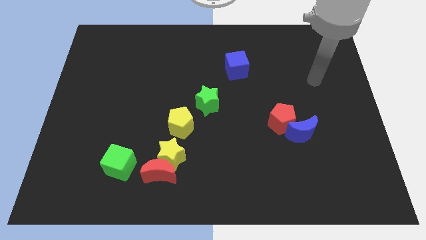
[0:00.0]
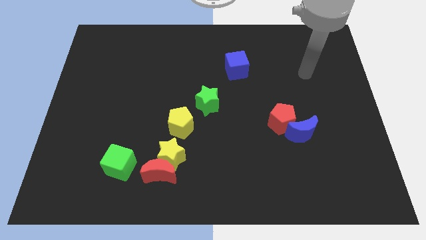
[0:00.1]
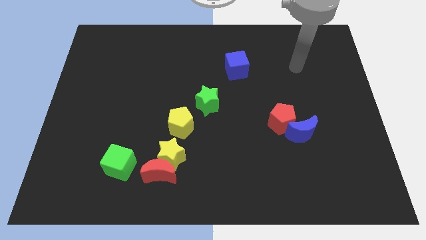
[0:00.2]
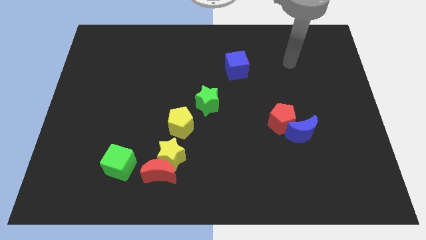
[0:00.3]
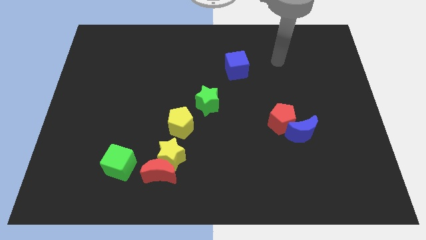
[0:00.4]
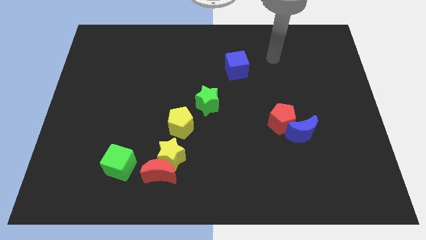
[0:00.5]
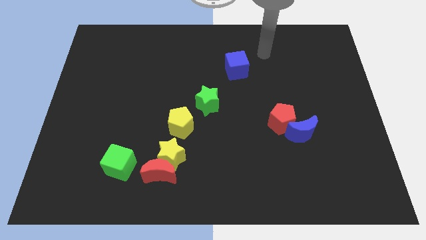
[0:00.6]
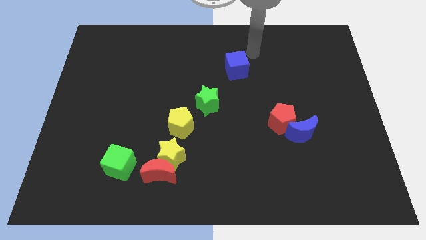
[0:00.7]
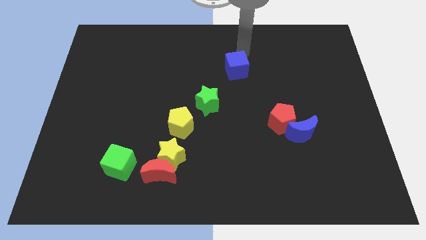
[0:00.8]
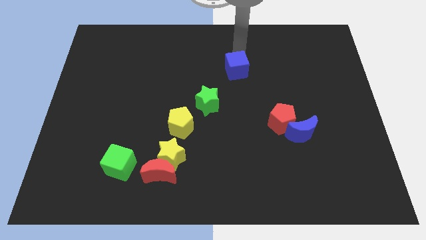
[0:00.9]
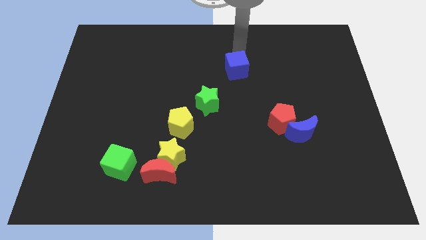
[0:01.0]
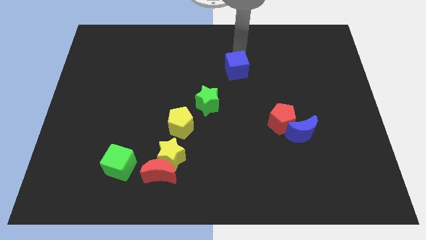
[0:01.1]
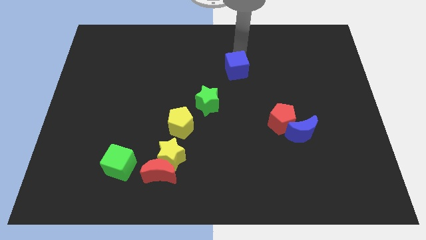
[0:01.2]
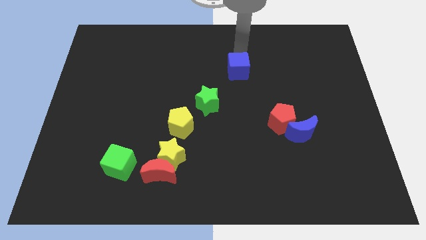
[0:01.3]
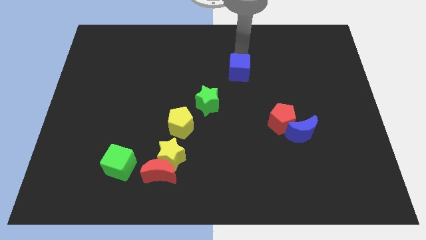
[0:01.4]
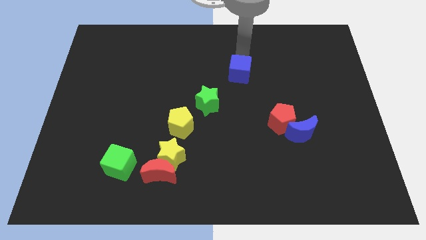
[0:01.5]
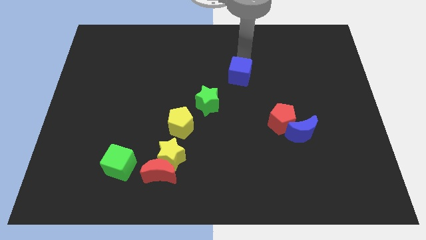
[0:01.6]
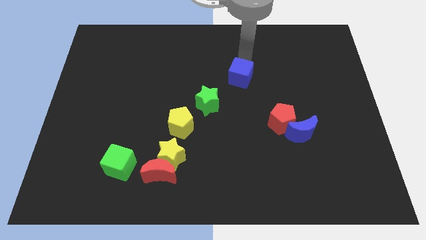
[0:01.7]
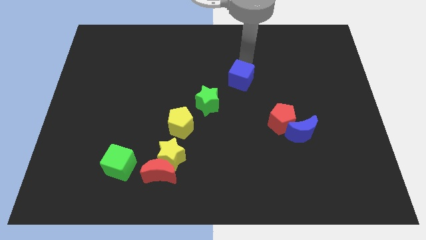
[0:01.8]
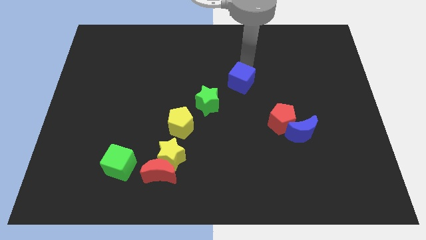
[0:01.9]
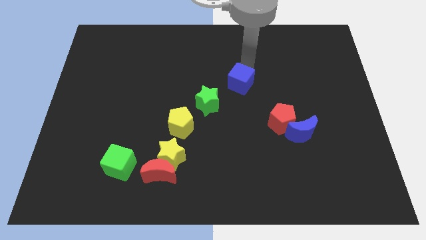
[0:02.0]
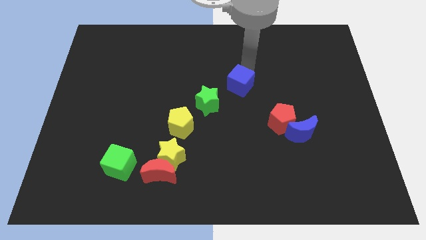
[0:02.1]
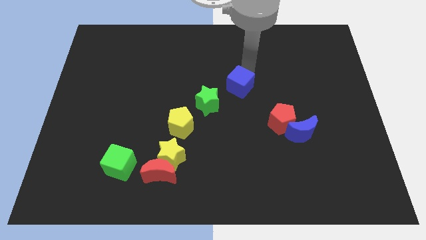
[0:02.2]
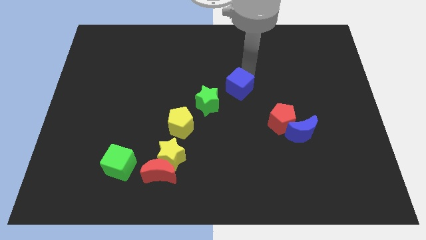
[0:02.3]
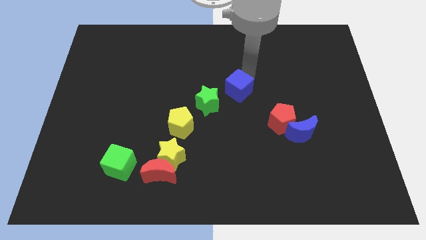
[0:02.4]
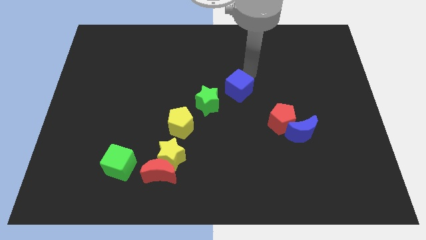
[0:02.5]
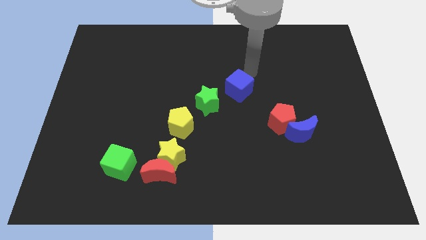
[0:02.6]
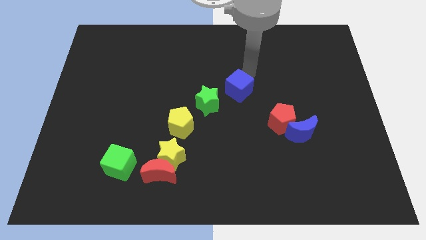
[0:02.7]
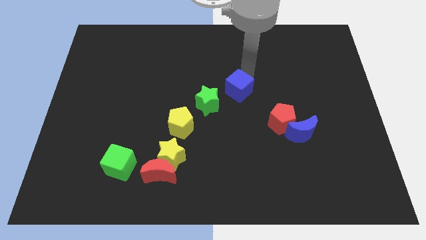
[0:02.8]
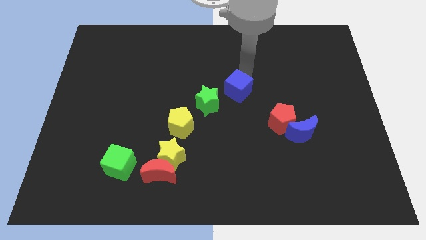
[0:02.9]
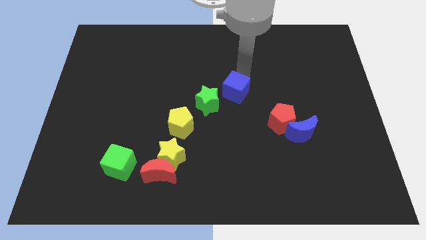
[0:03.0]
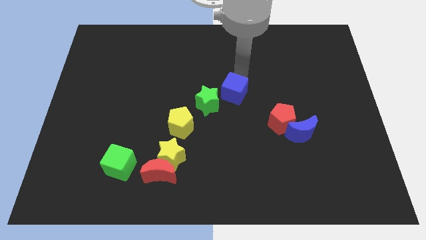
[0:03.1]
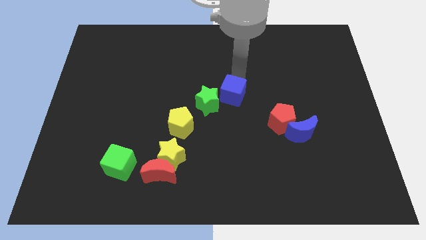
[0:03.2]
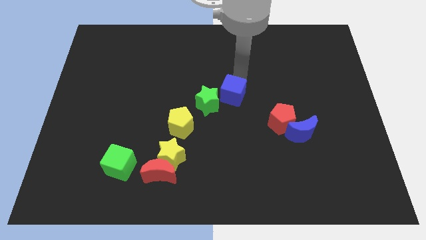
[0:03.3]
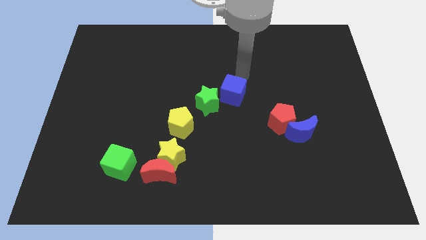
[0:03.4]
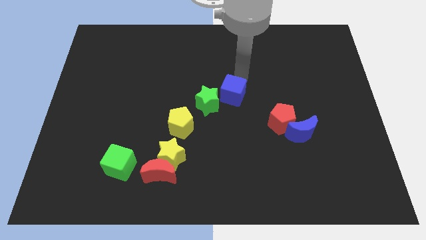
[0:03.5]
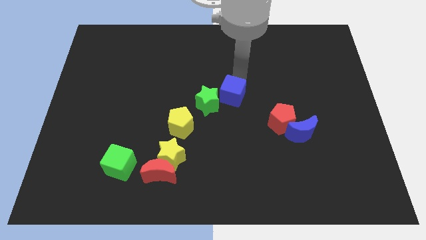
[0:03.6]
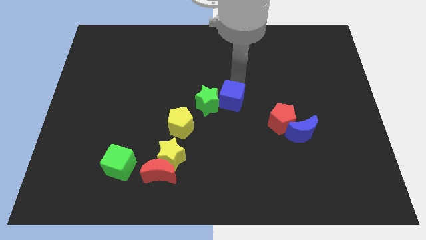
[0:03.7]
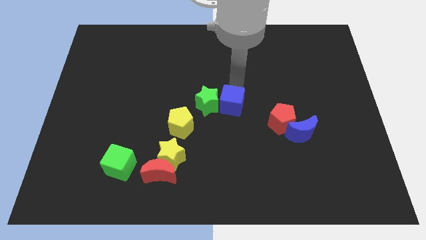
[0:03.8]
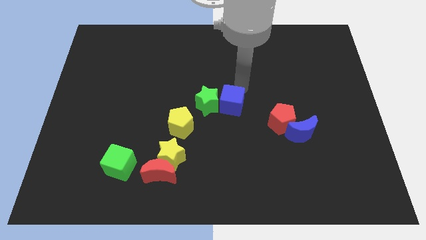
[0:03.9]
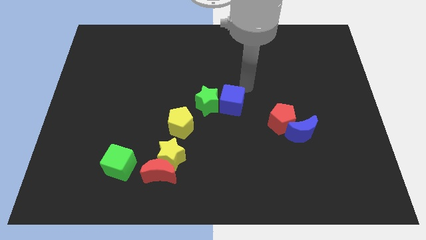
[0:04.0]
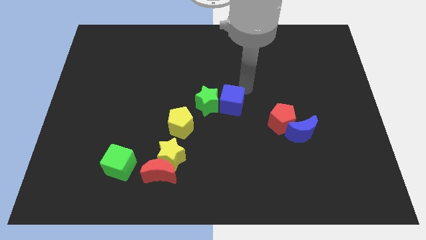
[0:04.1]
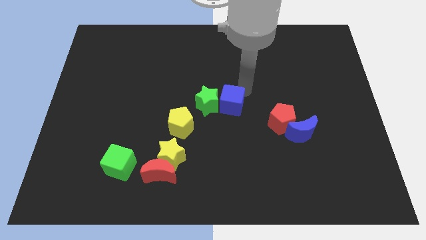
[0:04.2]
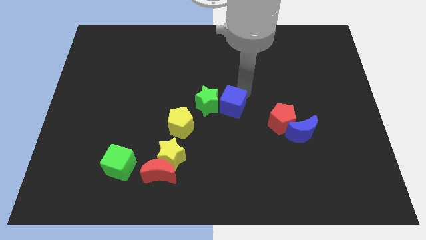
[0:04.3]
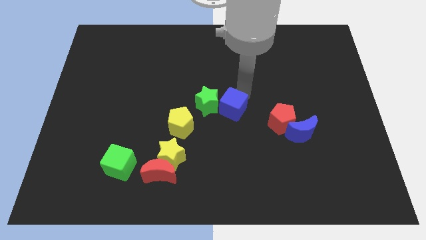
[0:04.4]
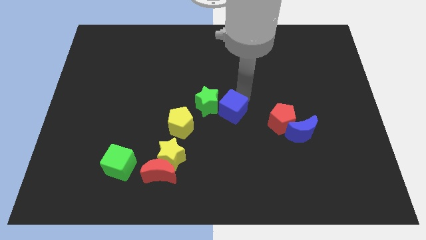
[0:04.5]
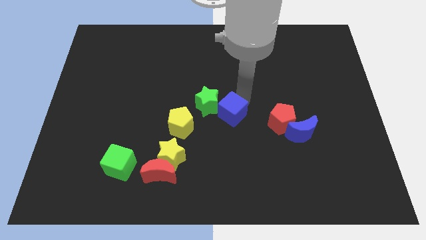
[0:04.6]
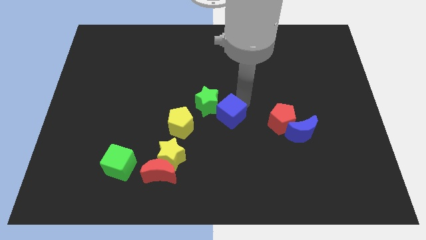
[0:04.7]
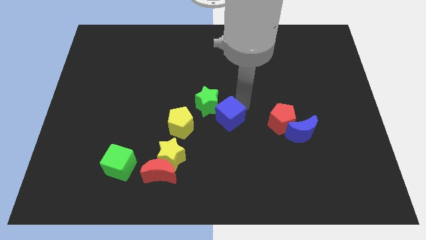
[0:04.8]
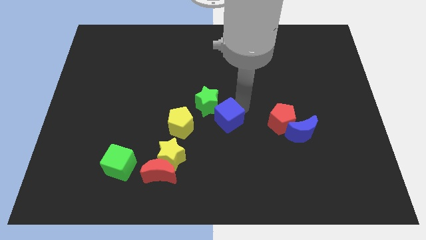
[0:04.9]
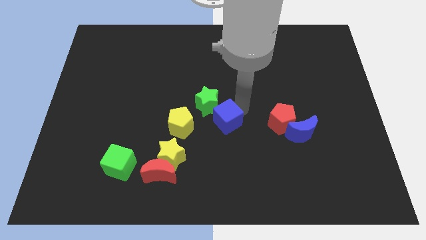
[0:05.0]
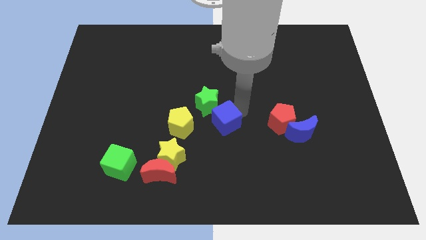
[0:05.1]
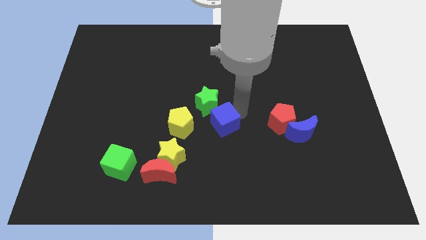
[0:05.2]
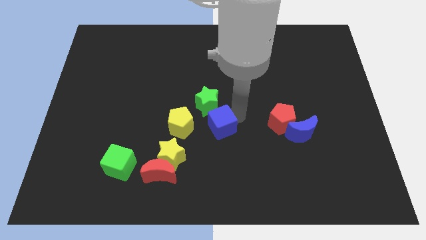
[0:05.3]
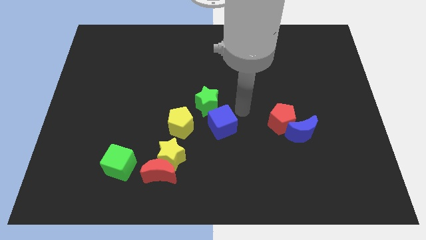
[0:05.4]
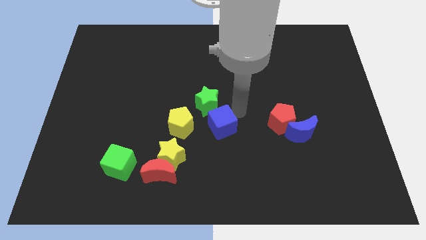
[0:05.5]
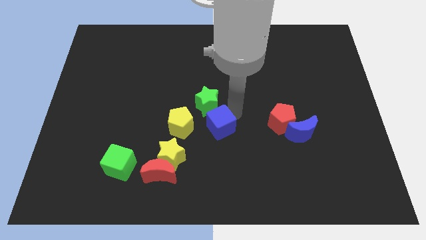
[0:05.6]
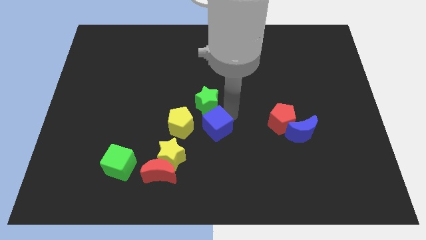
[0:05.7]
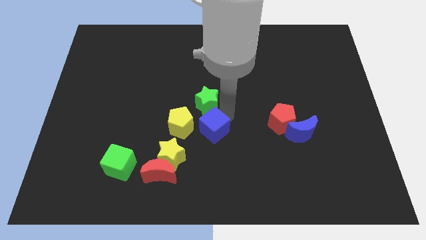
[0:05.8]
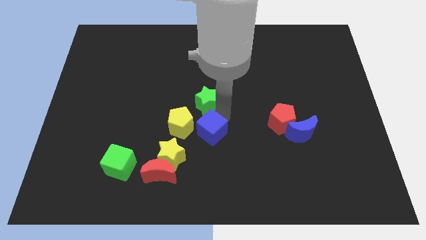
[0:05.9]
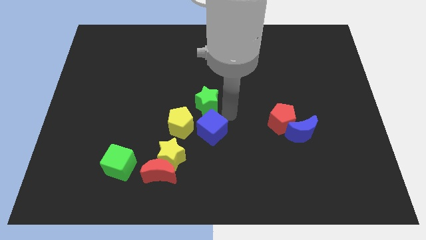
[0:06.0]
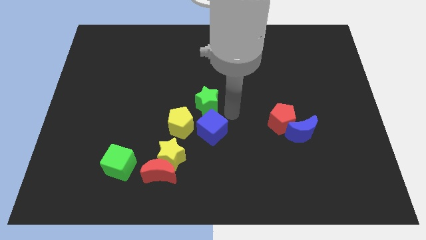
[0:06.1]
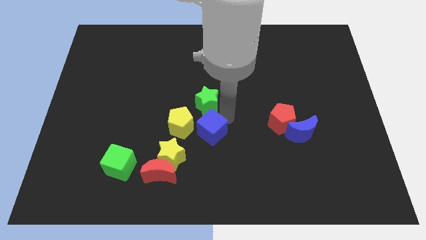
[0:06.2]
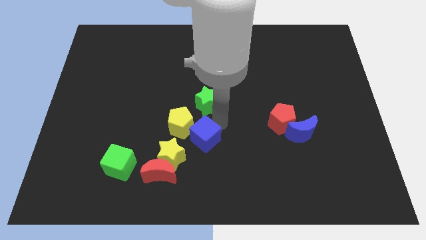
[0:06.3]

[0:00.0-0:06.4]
push the blue cube diagonally up and to the right of the red moon

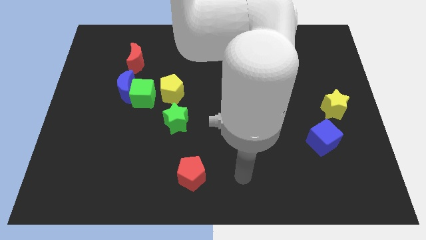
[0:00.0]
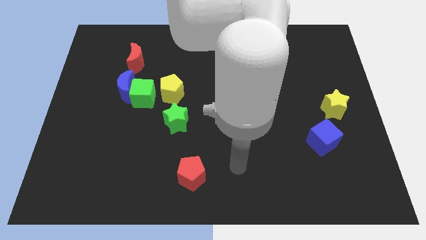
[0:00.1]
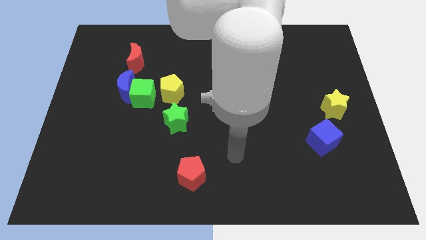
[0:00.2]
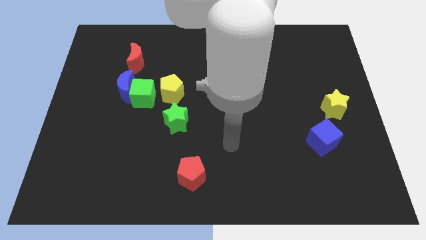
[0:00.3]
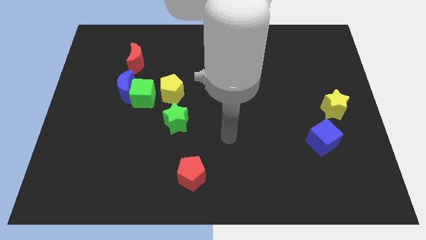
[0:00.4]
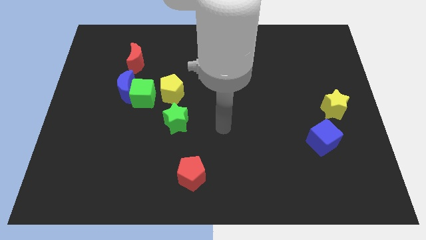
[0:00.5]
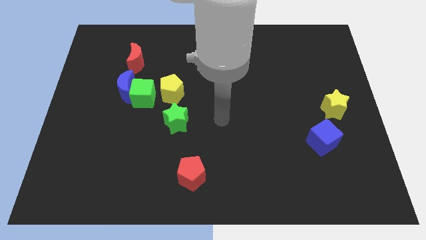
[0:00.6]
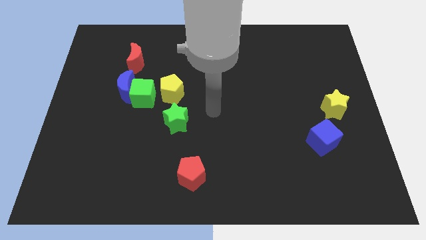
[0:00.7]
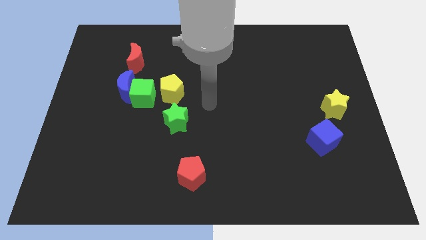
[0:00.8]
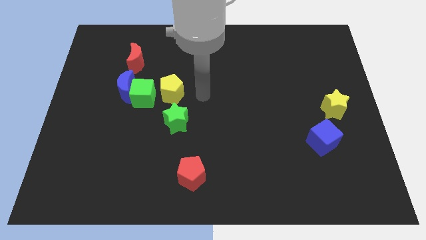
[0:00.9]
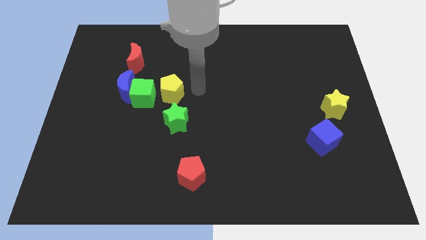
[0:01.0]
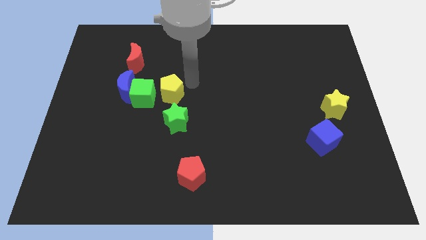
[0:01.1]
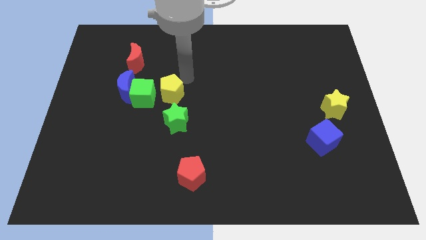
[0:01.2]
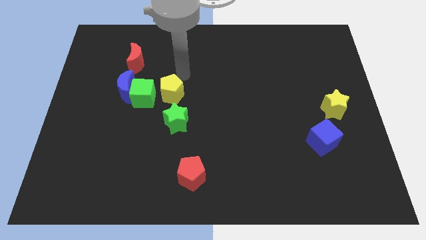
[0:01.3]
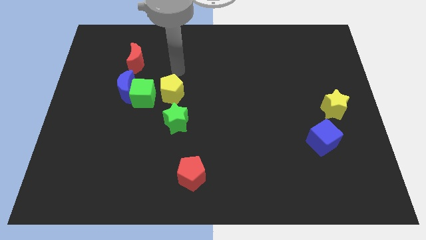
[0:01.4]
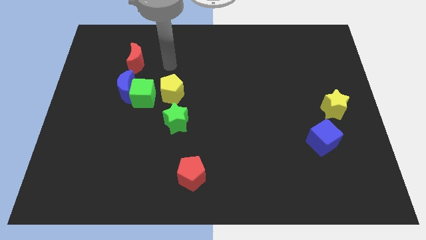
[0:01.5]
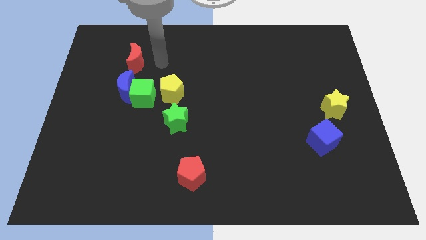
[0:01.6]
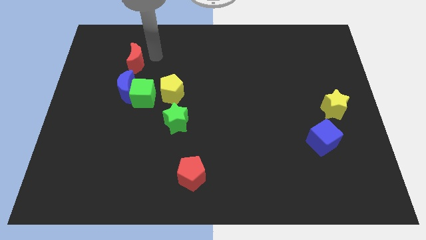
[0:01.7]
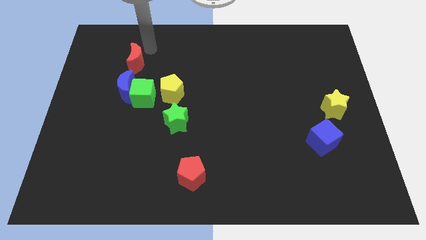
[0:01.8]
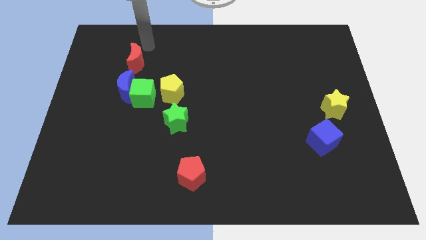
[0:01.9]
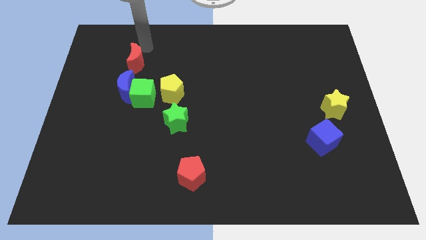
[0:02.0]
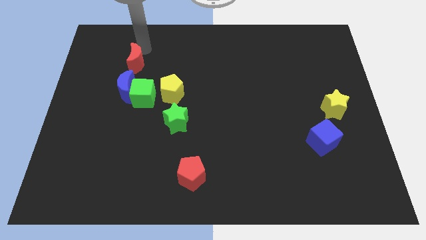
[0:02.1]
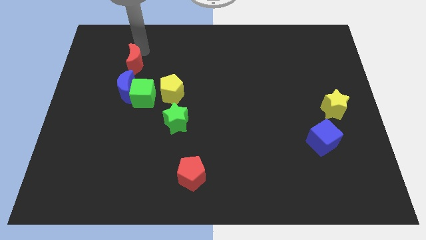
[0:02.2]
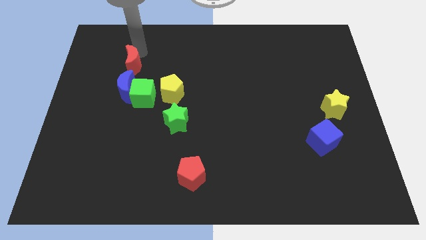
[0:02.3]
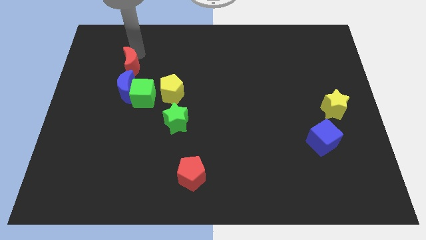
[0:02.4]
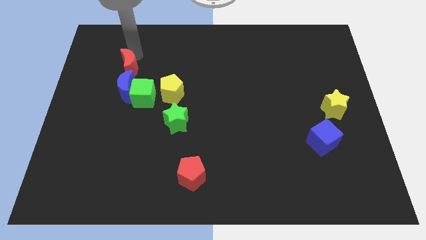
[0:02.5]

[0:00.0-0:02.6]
put the red moon to the top left side of the green cube
